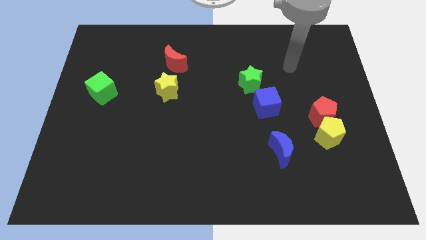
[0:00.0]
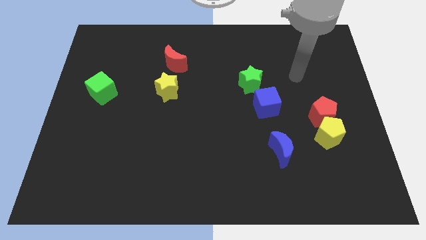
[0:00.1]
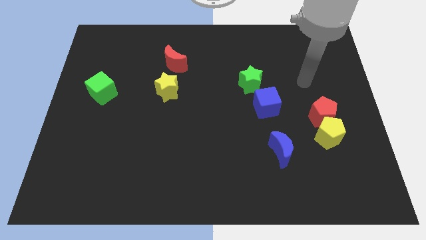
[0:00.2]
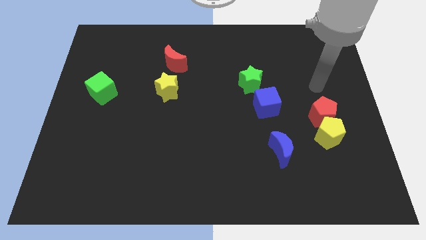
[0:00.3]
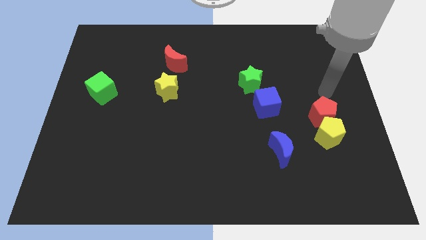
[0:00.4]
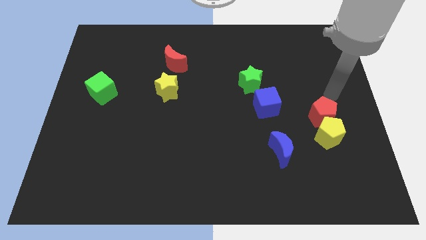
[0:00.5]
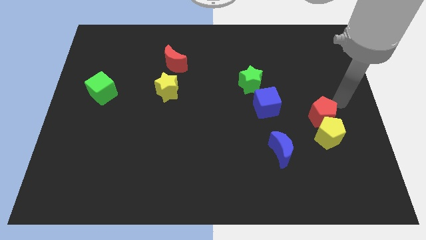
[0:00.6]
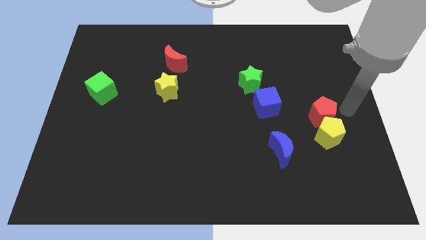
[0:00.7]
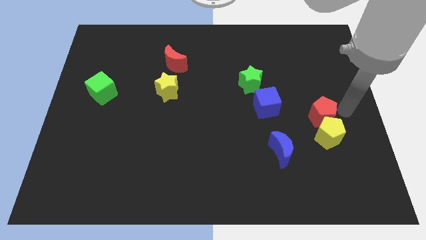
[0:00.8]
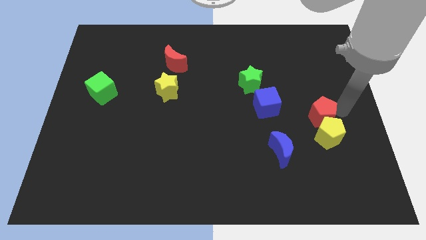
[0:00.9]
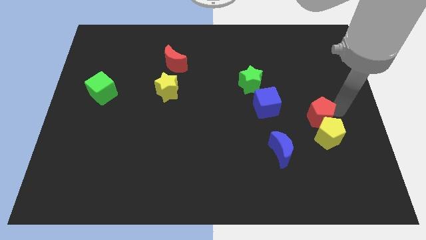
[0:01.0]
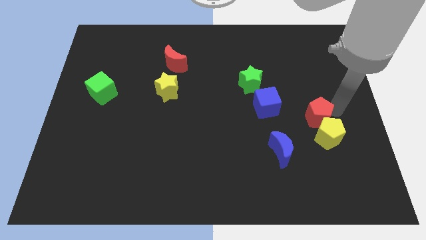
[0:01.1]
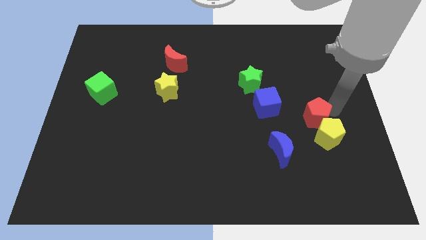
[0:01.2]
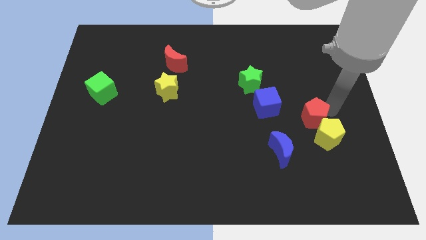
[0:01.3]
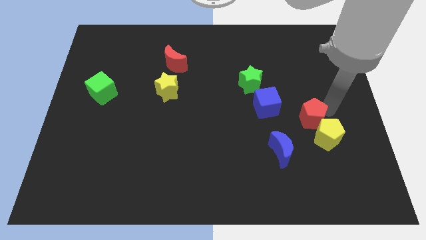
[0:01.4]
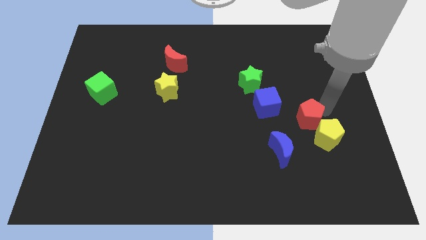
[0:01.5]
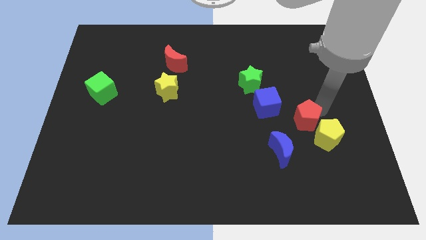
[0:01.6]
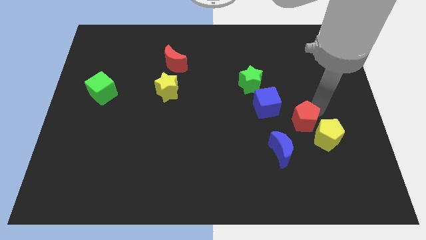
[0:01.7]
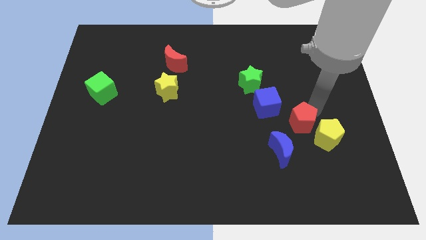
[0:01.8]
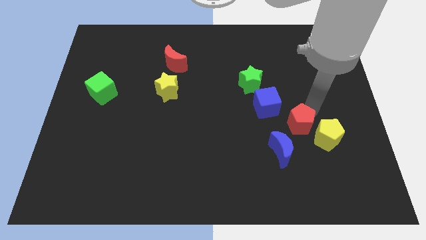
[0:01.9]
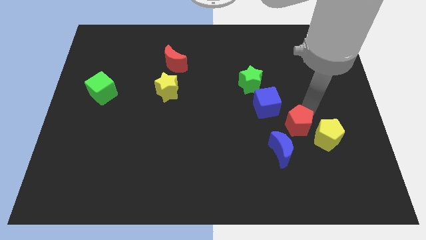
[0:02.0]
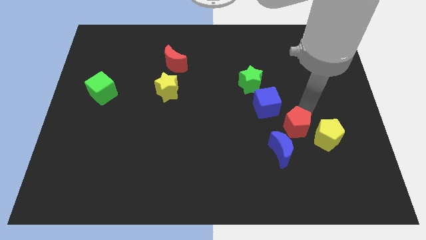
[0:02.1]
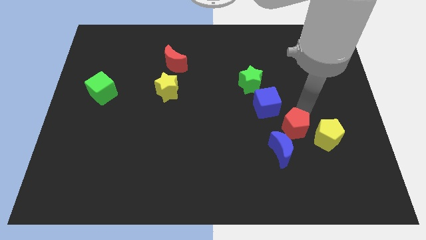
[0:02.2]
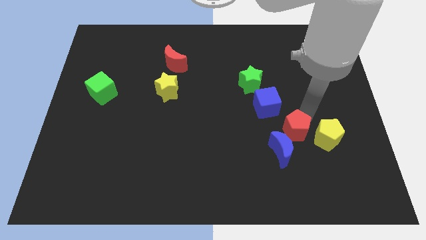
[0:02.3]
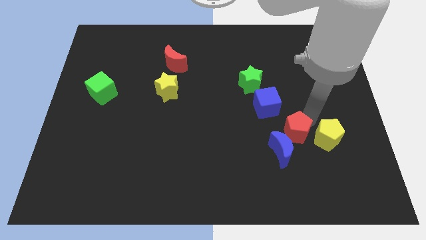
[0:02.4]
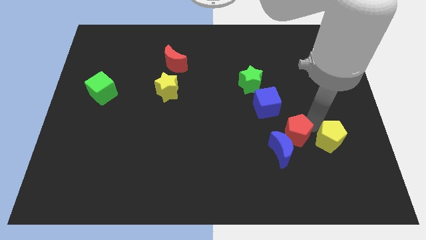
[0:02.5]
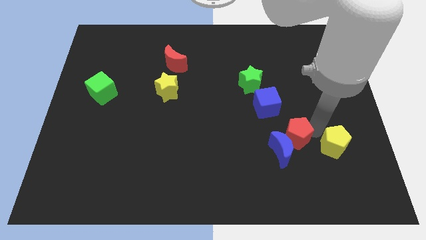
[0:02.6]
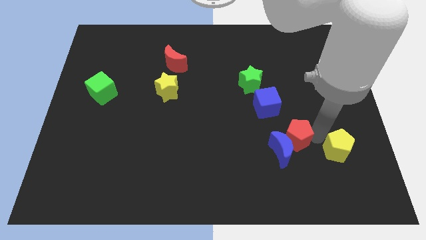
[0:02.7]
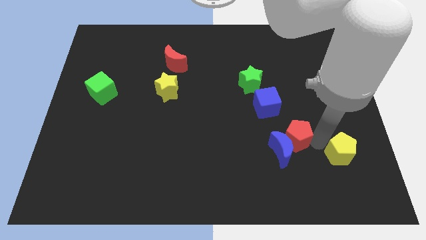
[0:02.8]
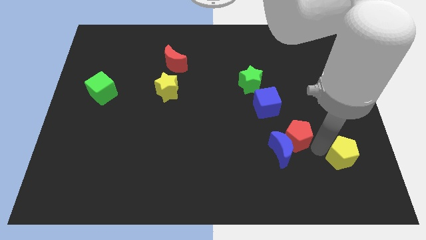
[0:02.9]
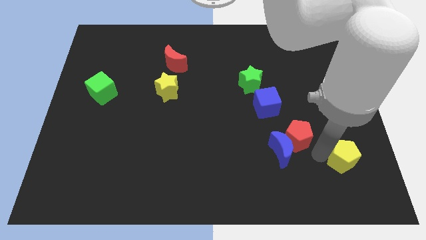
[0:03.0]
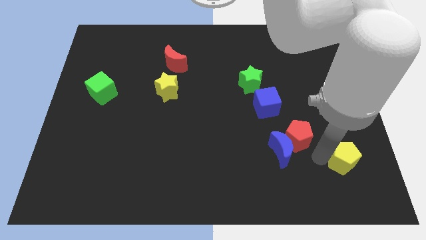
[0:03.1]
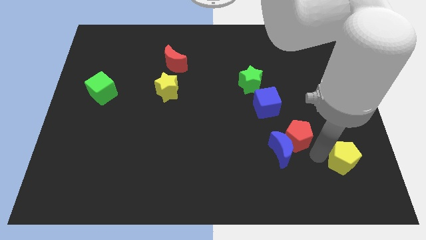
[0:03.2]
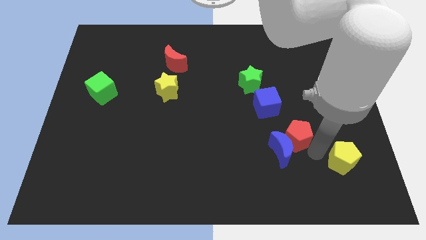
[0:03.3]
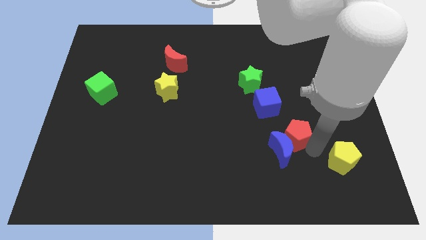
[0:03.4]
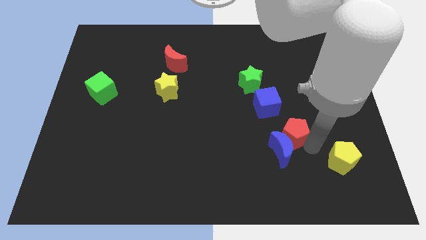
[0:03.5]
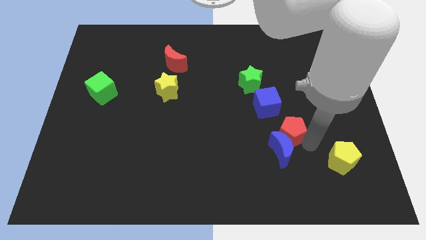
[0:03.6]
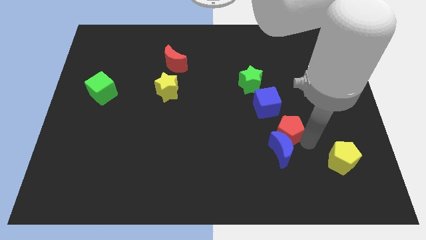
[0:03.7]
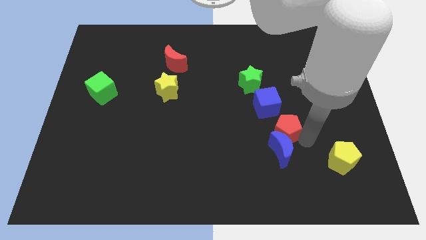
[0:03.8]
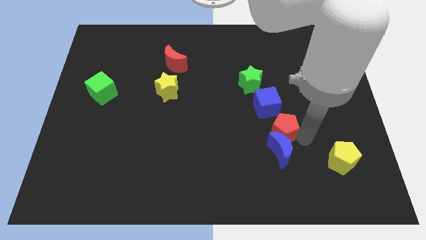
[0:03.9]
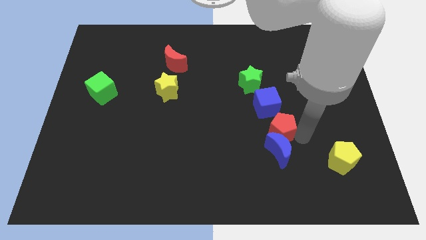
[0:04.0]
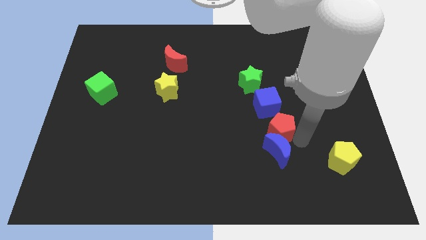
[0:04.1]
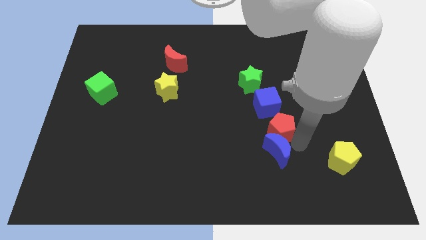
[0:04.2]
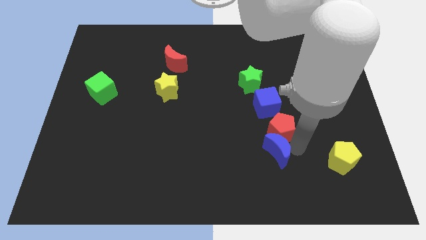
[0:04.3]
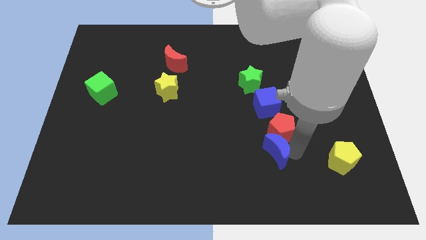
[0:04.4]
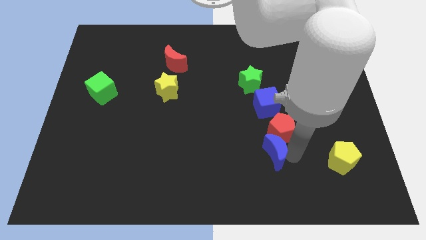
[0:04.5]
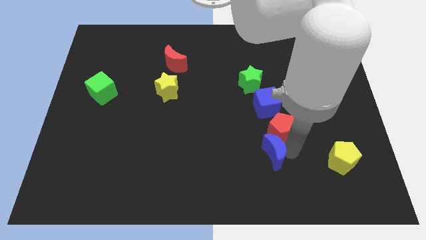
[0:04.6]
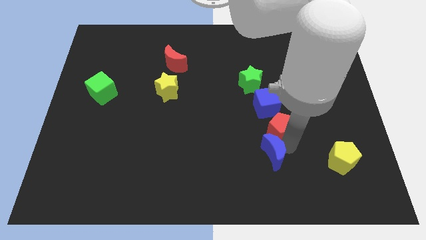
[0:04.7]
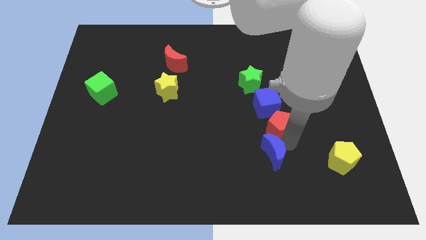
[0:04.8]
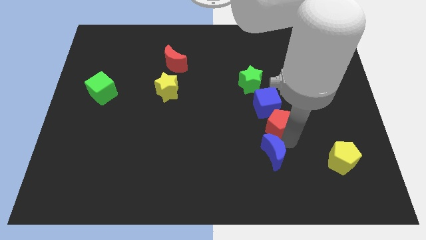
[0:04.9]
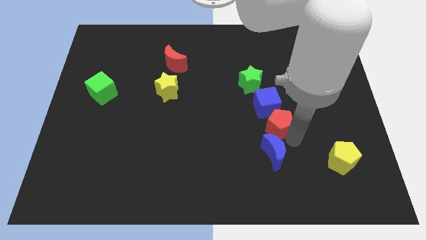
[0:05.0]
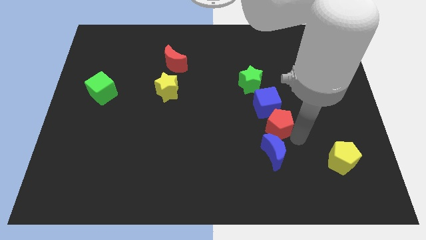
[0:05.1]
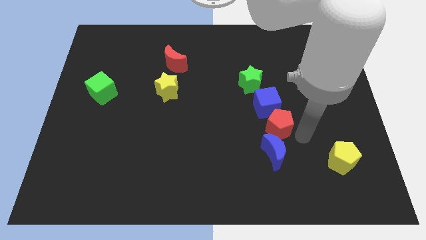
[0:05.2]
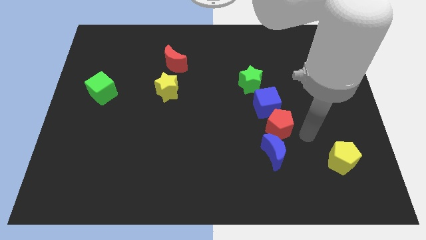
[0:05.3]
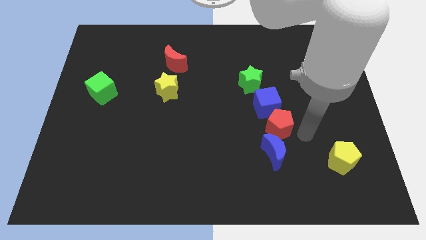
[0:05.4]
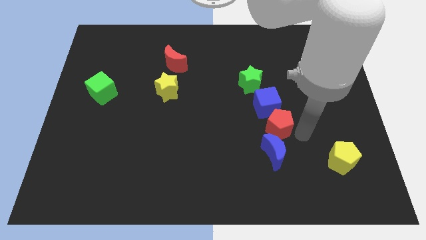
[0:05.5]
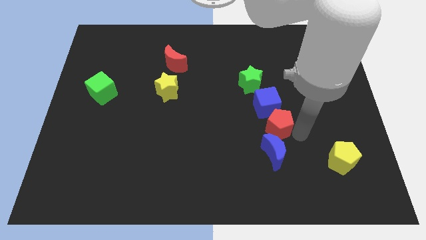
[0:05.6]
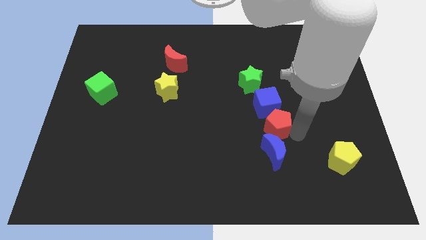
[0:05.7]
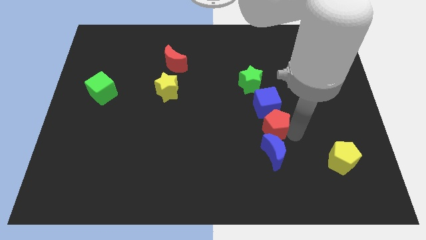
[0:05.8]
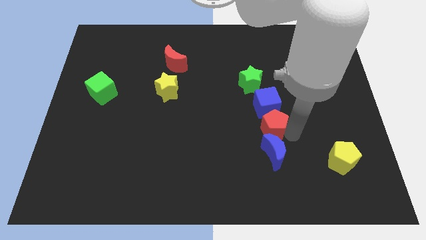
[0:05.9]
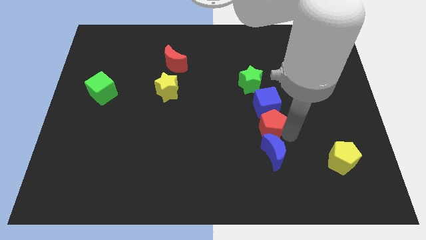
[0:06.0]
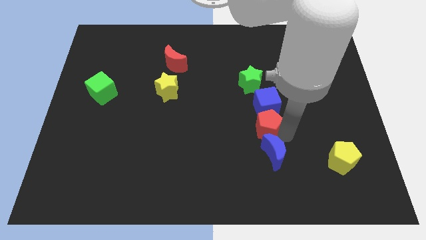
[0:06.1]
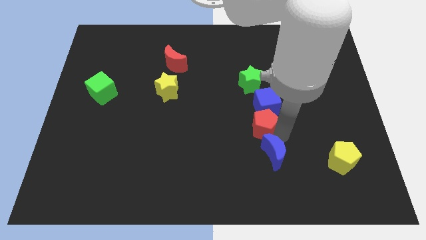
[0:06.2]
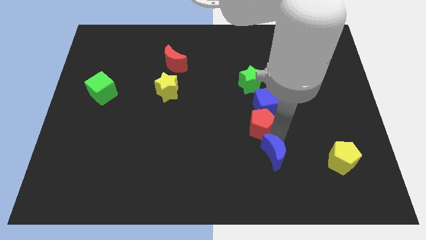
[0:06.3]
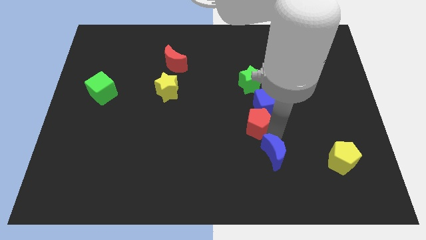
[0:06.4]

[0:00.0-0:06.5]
put the red pentagon to the middle of the board
